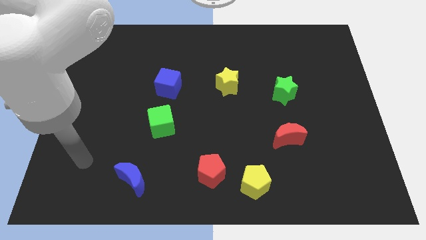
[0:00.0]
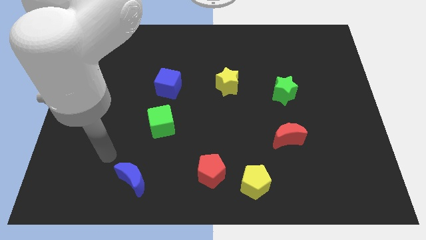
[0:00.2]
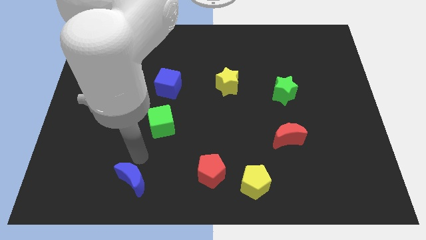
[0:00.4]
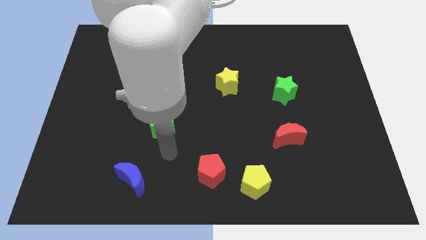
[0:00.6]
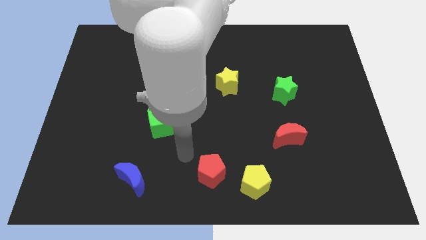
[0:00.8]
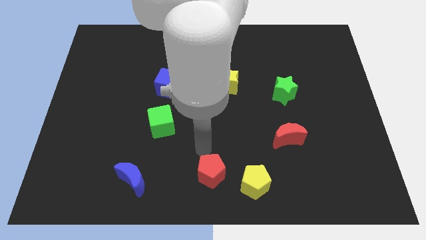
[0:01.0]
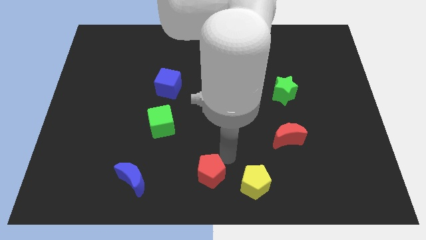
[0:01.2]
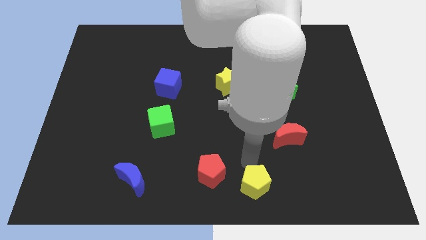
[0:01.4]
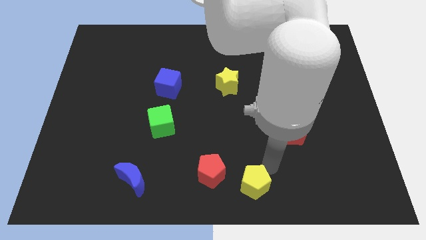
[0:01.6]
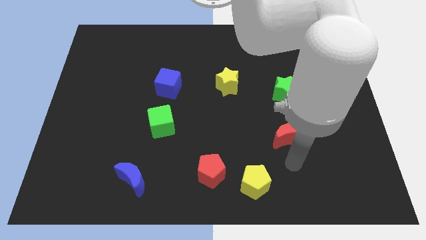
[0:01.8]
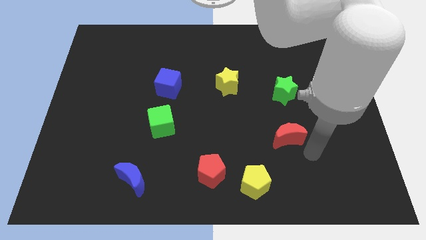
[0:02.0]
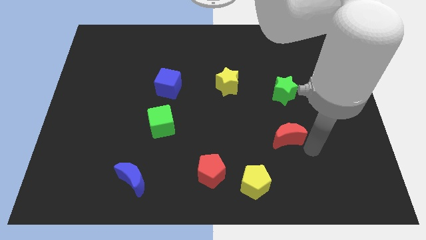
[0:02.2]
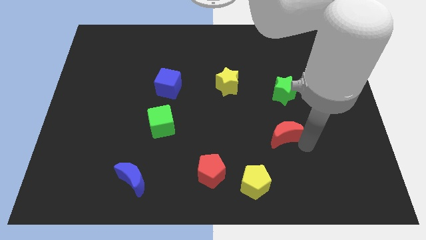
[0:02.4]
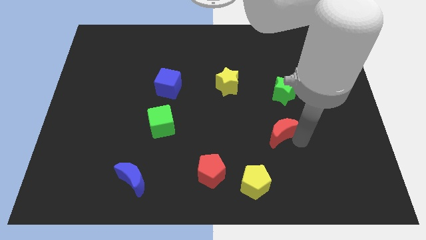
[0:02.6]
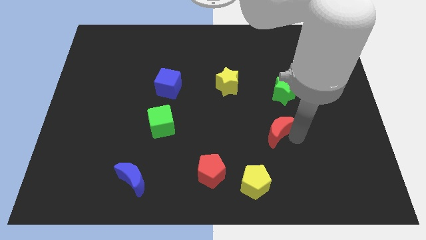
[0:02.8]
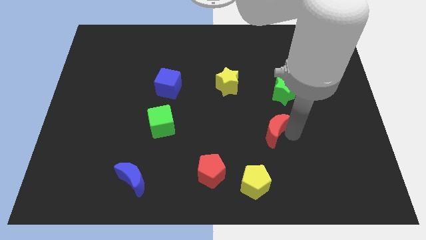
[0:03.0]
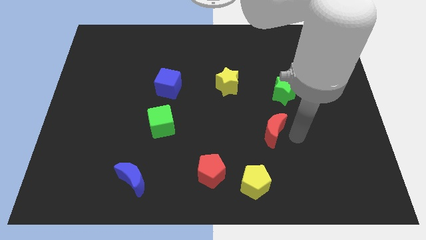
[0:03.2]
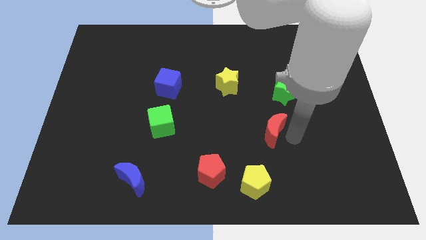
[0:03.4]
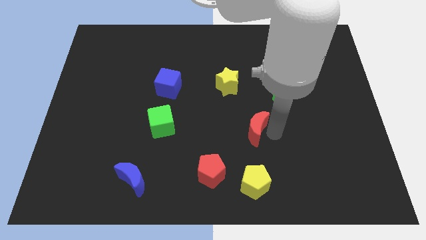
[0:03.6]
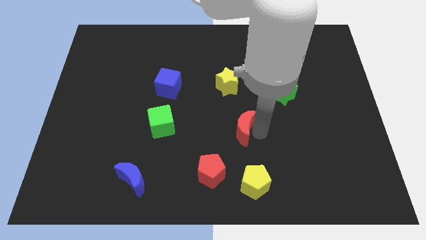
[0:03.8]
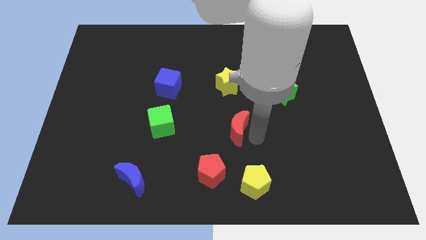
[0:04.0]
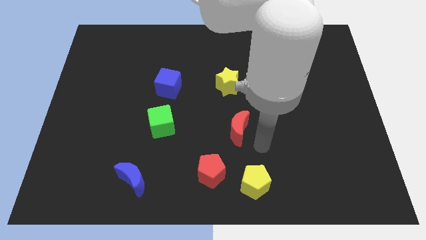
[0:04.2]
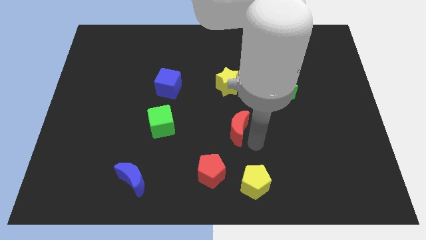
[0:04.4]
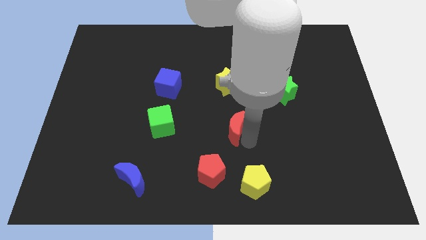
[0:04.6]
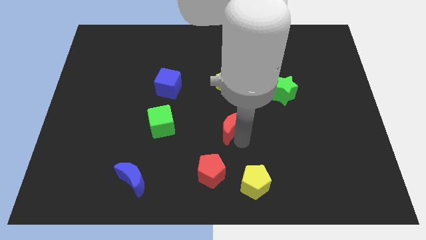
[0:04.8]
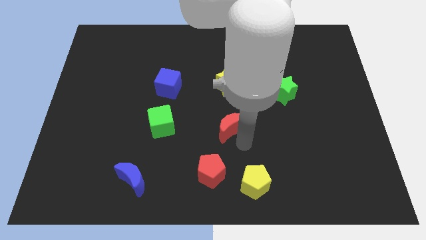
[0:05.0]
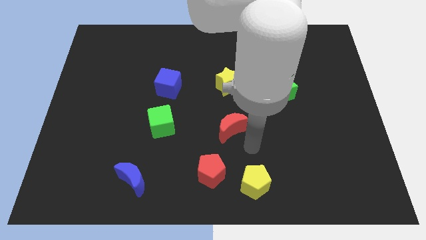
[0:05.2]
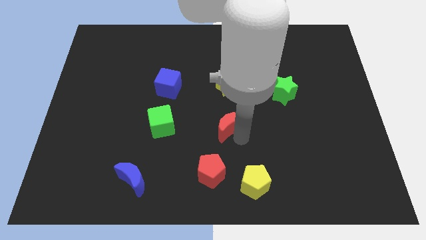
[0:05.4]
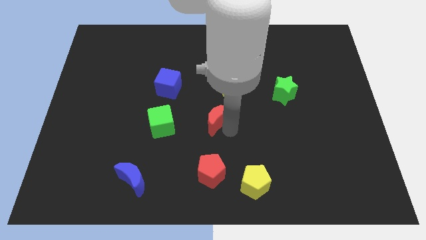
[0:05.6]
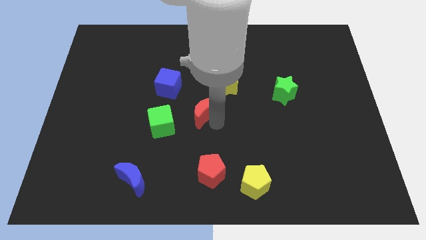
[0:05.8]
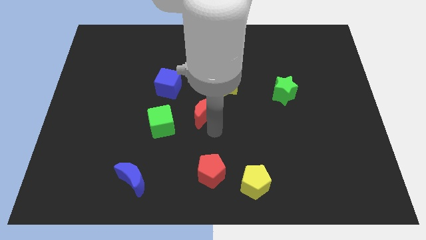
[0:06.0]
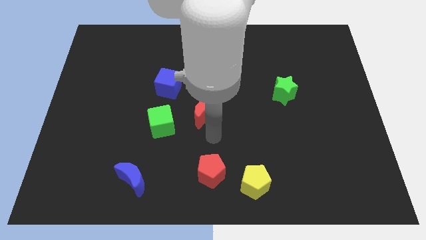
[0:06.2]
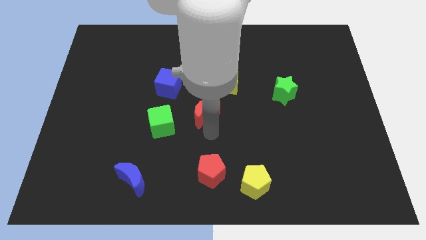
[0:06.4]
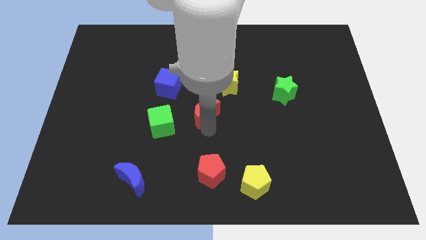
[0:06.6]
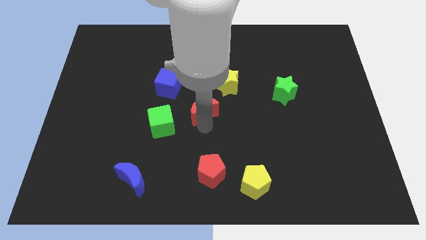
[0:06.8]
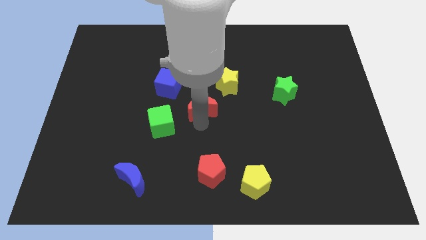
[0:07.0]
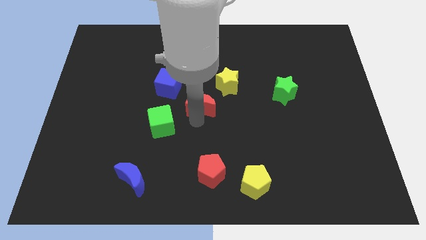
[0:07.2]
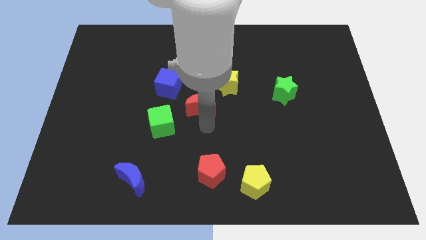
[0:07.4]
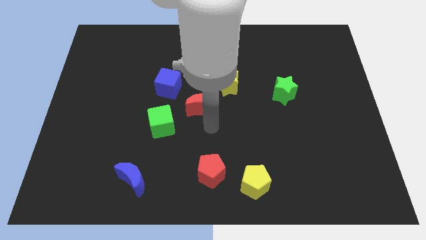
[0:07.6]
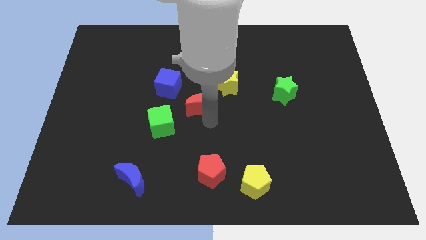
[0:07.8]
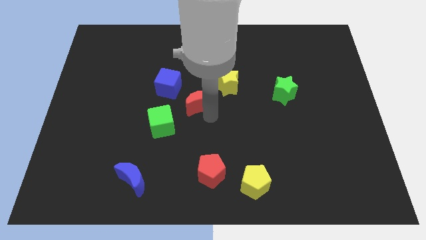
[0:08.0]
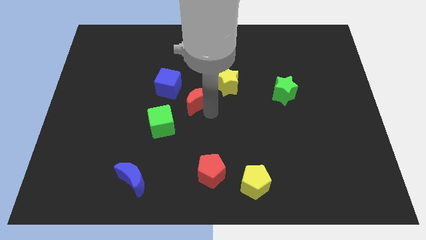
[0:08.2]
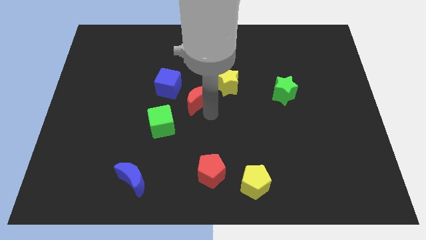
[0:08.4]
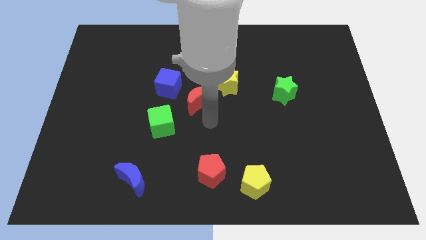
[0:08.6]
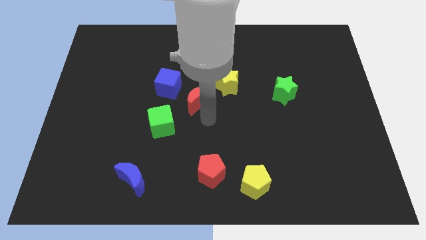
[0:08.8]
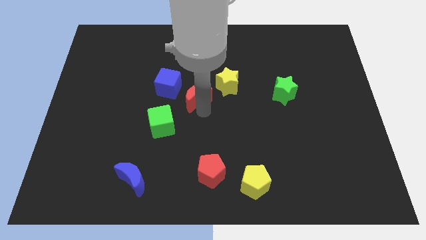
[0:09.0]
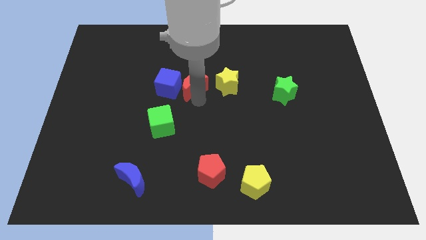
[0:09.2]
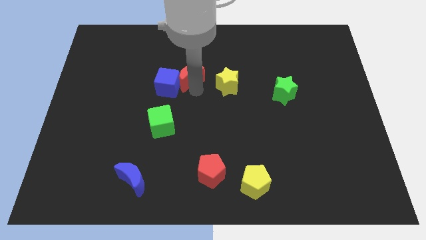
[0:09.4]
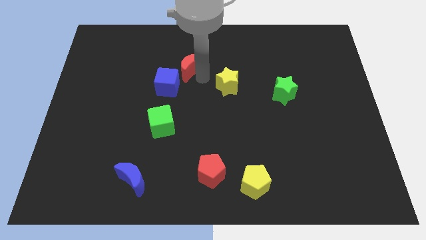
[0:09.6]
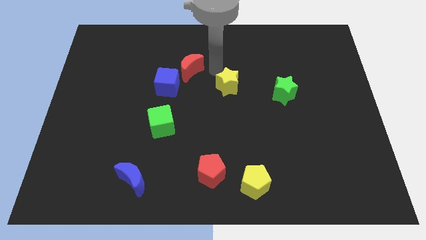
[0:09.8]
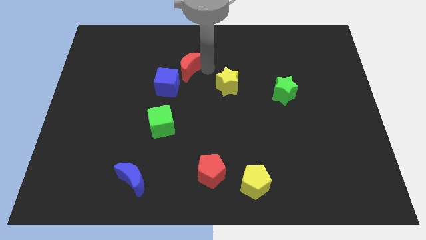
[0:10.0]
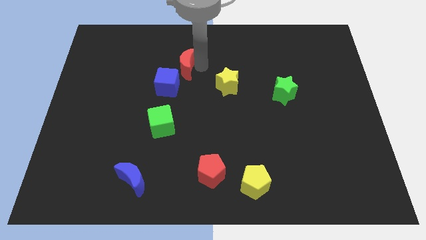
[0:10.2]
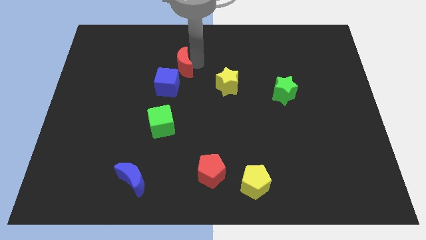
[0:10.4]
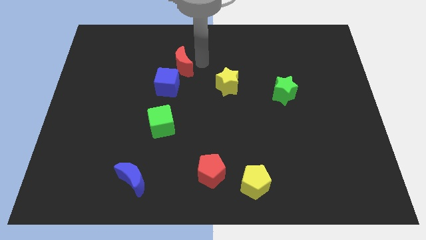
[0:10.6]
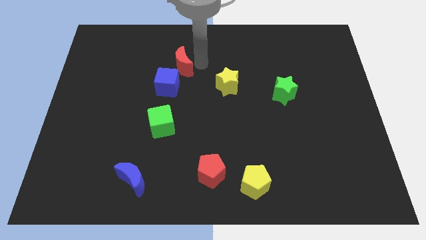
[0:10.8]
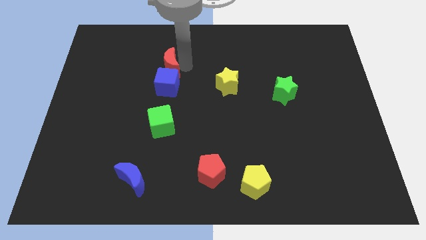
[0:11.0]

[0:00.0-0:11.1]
put the red moon diagonally up and to the left of the blue cube

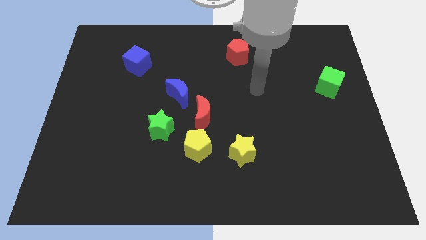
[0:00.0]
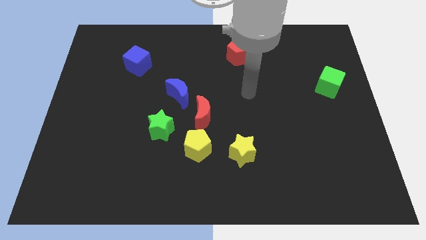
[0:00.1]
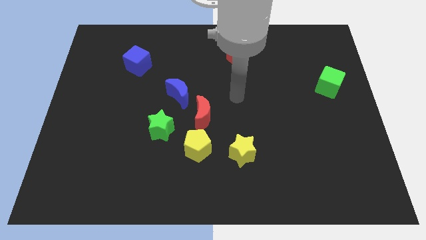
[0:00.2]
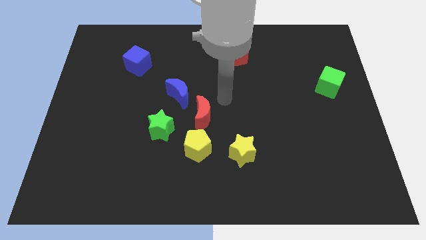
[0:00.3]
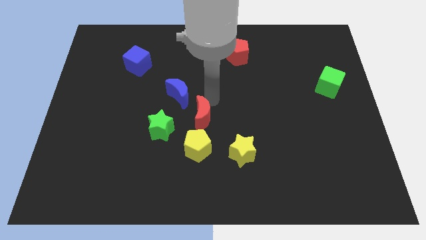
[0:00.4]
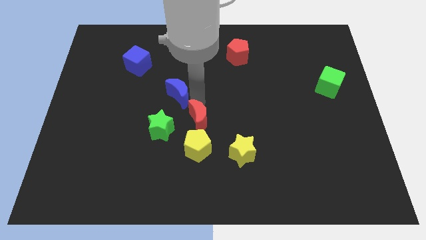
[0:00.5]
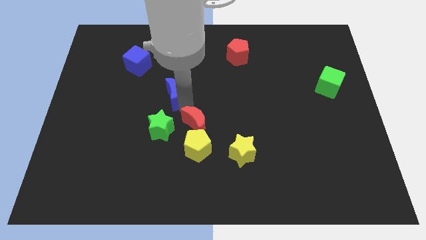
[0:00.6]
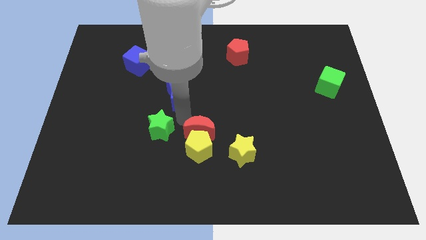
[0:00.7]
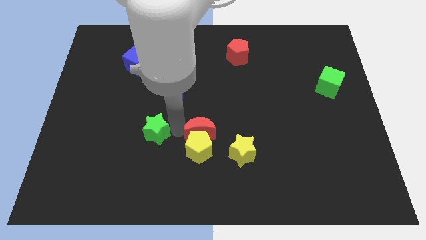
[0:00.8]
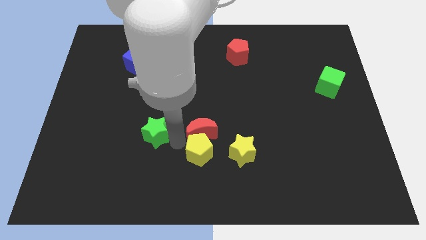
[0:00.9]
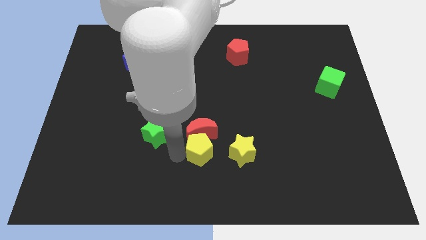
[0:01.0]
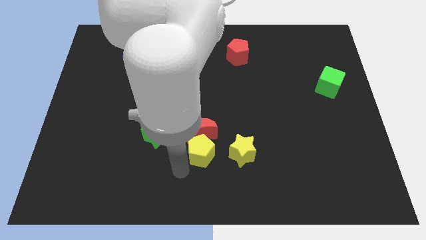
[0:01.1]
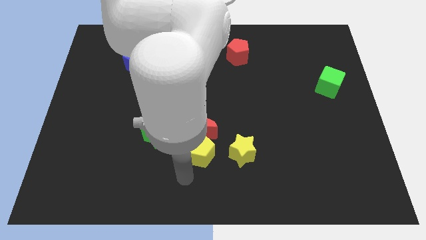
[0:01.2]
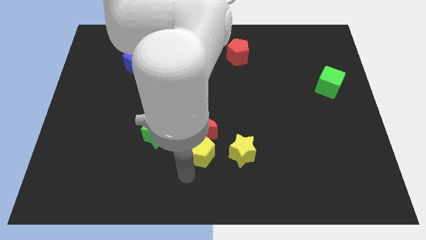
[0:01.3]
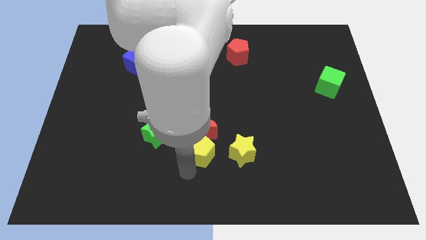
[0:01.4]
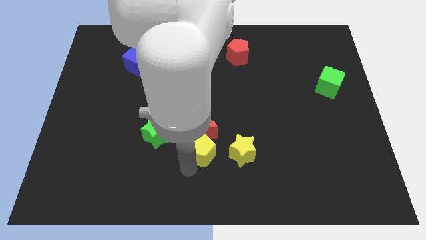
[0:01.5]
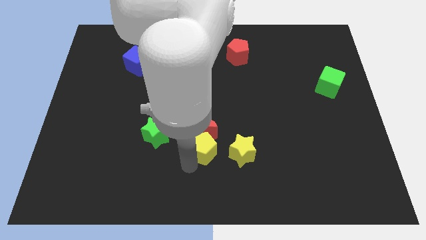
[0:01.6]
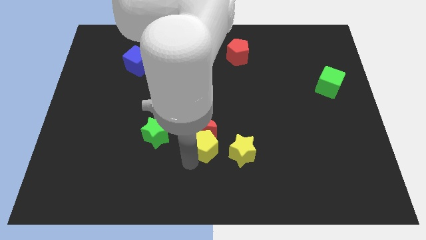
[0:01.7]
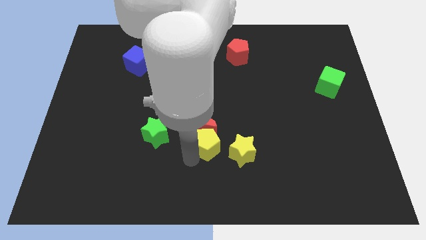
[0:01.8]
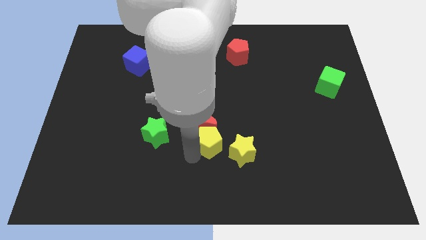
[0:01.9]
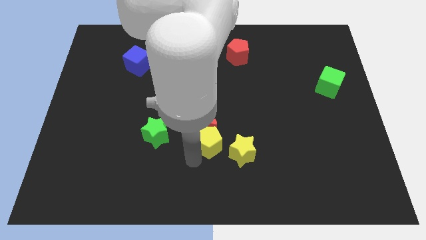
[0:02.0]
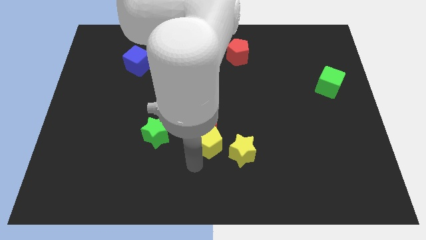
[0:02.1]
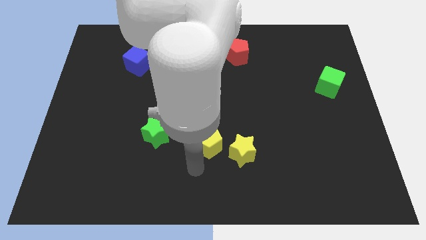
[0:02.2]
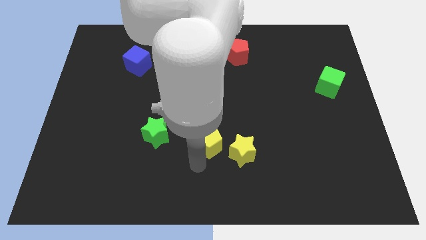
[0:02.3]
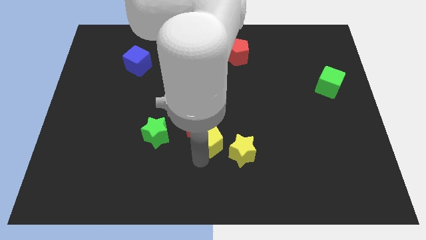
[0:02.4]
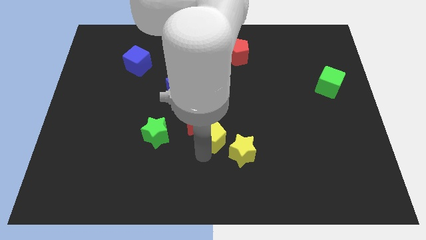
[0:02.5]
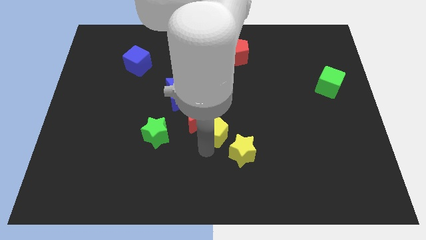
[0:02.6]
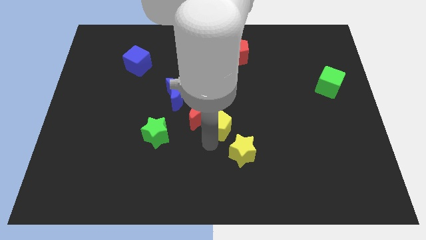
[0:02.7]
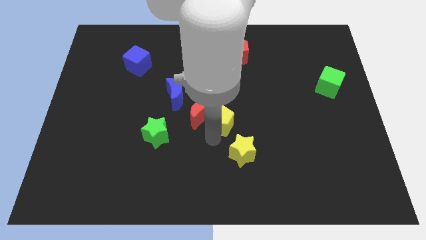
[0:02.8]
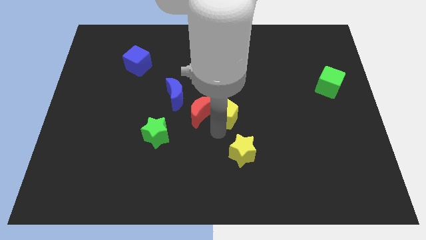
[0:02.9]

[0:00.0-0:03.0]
put the yellow pentagon to the top right side of the red moon
